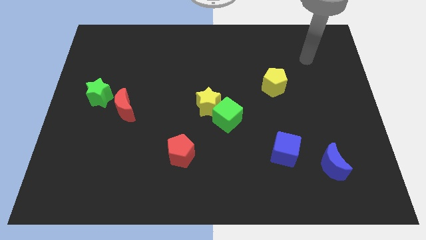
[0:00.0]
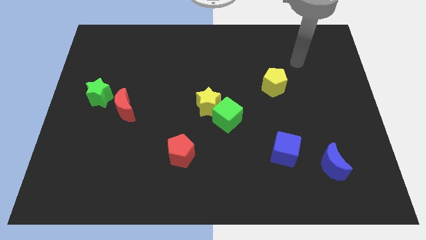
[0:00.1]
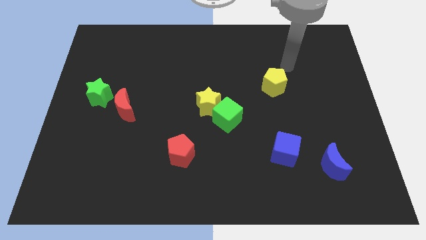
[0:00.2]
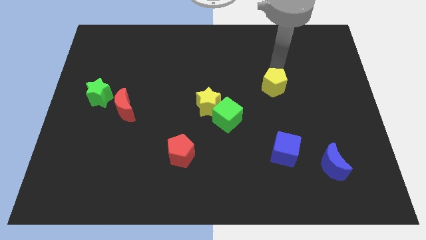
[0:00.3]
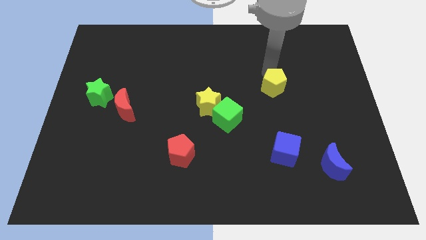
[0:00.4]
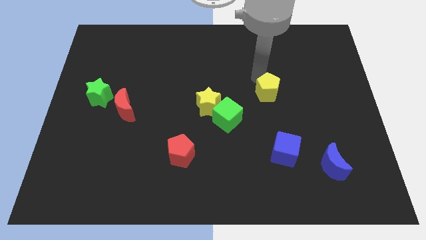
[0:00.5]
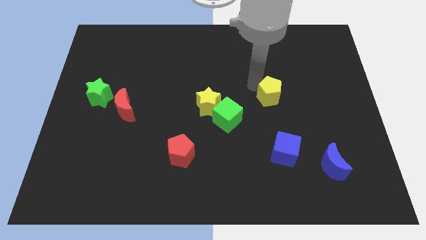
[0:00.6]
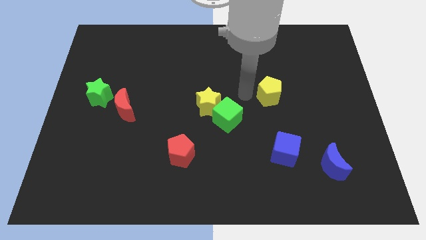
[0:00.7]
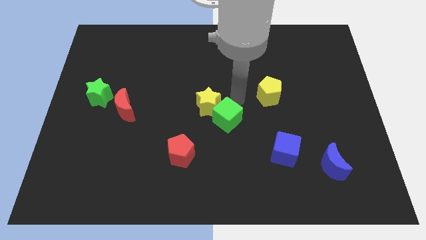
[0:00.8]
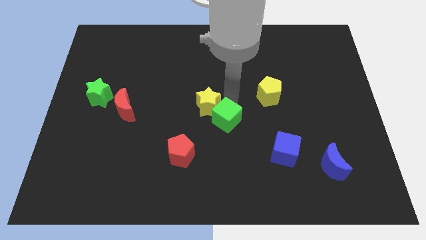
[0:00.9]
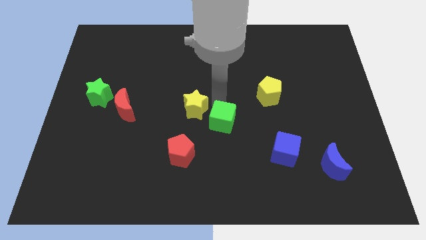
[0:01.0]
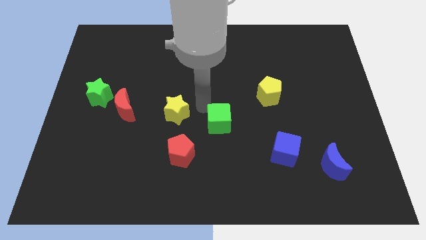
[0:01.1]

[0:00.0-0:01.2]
pull the green cube apart from the yellow star

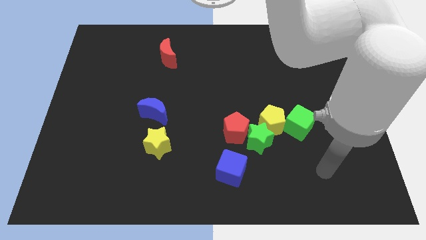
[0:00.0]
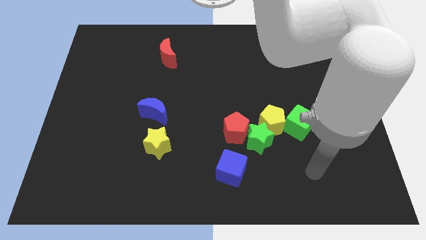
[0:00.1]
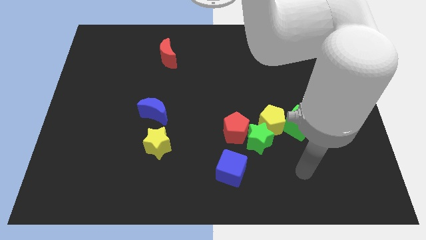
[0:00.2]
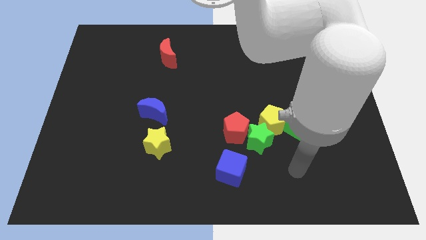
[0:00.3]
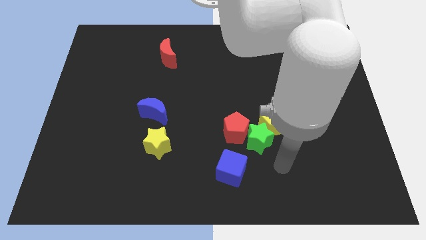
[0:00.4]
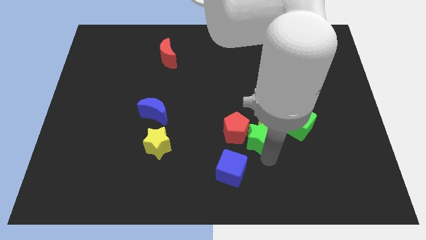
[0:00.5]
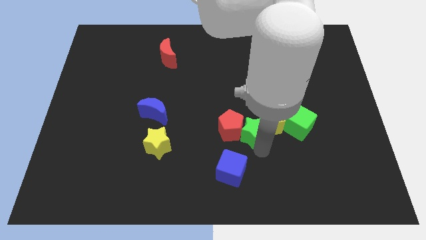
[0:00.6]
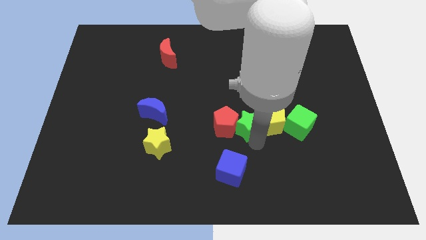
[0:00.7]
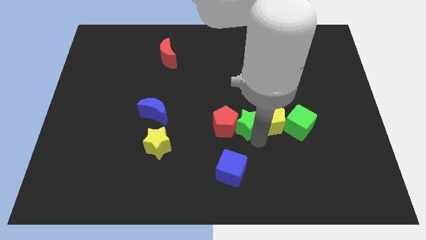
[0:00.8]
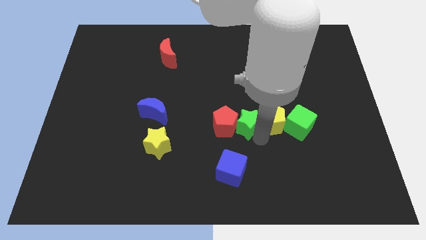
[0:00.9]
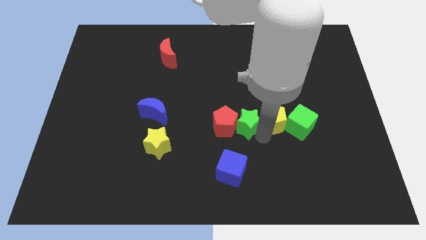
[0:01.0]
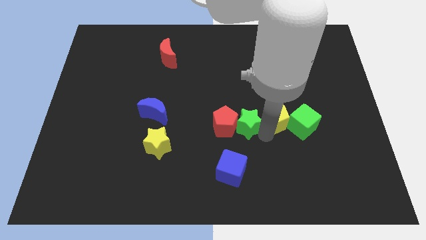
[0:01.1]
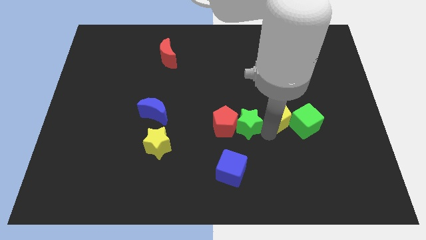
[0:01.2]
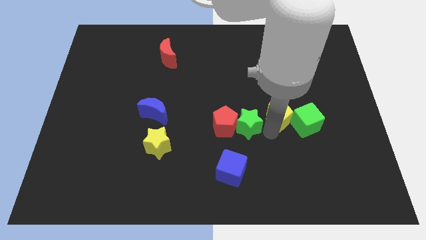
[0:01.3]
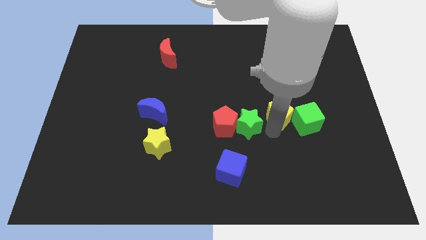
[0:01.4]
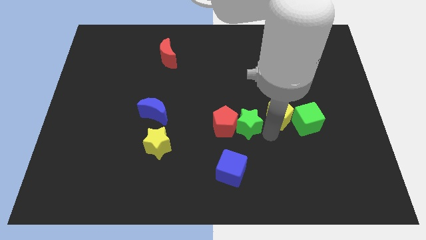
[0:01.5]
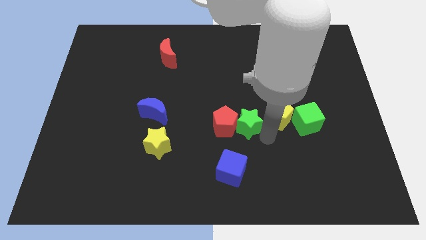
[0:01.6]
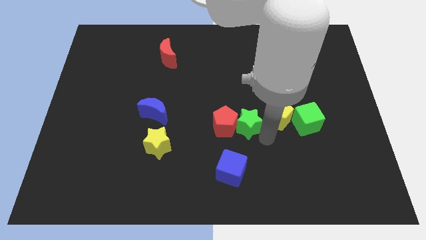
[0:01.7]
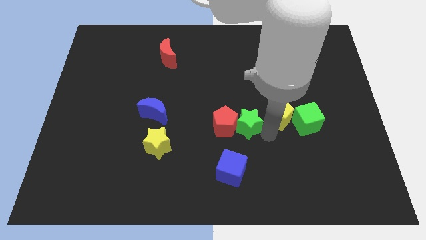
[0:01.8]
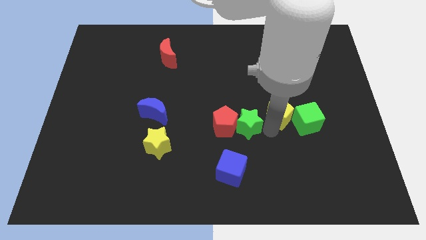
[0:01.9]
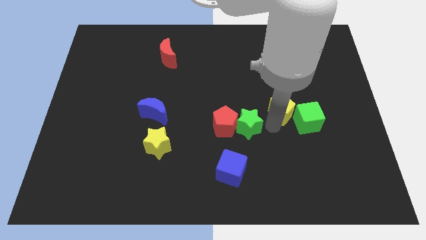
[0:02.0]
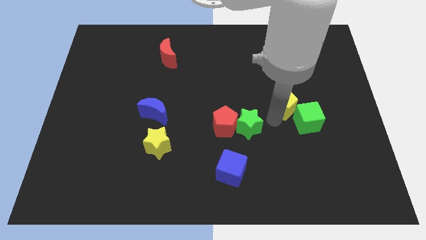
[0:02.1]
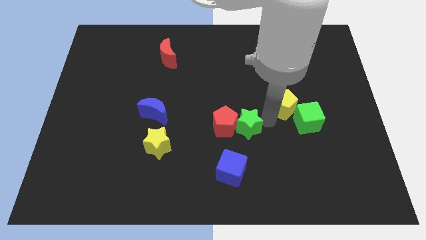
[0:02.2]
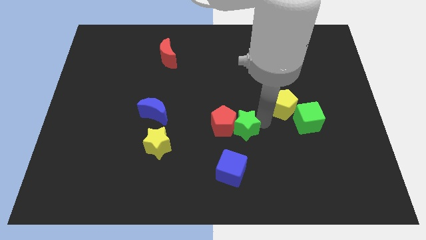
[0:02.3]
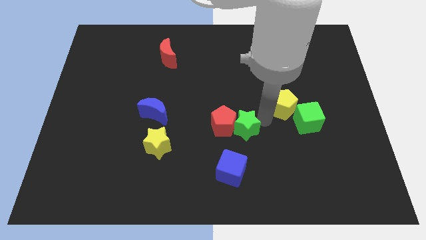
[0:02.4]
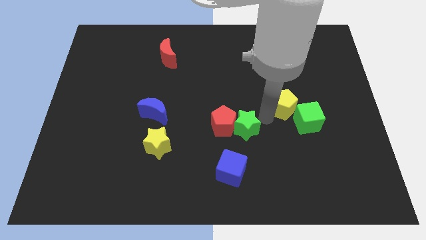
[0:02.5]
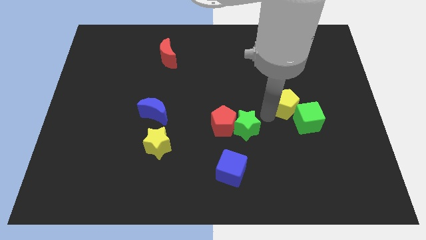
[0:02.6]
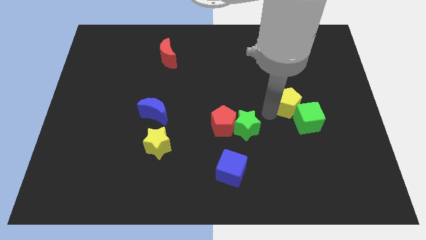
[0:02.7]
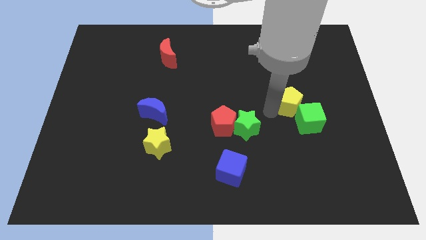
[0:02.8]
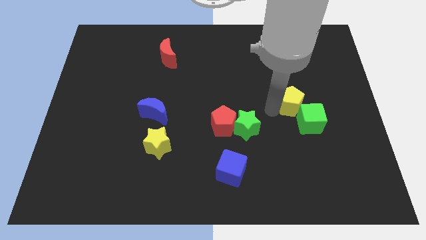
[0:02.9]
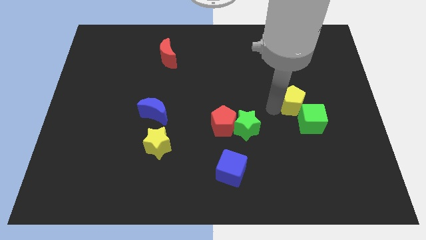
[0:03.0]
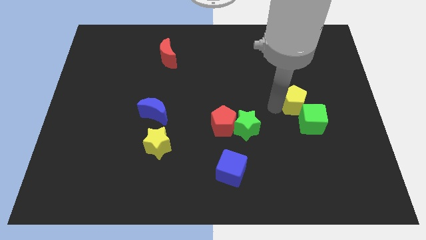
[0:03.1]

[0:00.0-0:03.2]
pull the yellow pentagon apart from the green star, green cube, and red pentagon

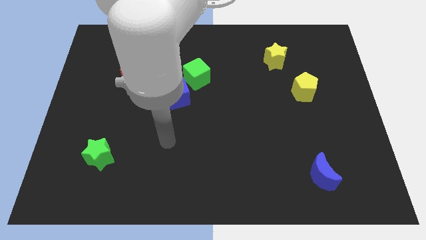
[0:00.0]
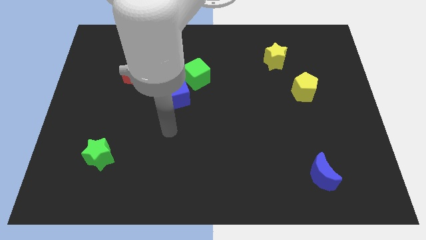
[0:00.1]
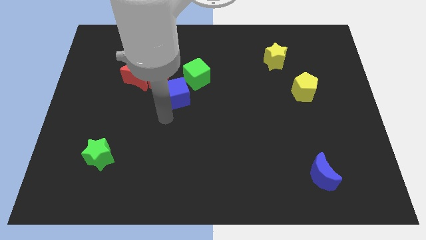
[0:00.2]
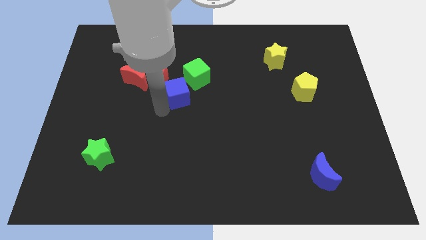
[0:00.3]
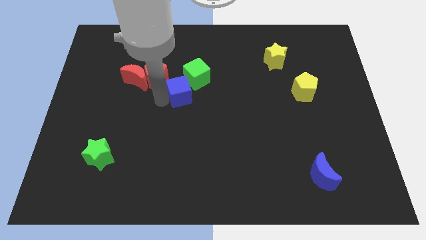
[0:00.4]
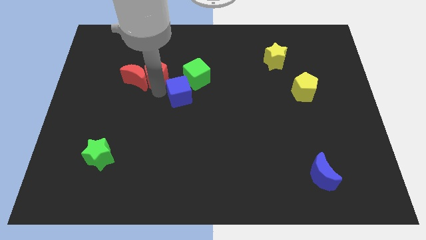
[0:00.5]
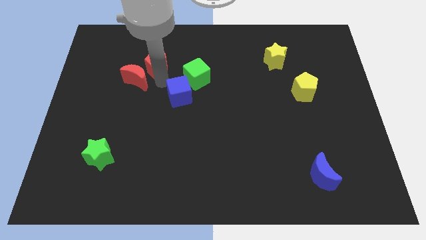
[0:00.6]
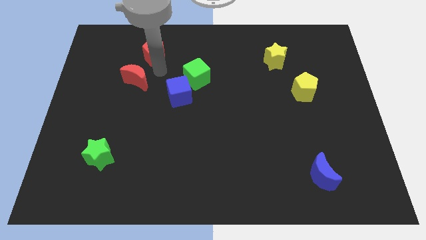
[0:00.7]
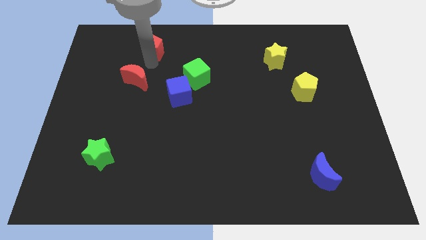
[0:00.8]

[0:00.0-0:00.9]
move the red moon away from the red pentagon

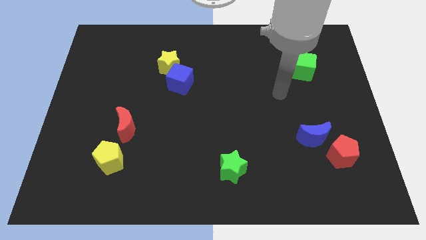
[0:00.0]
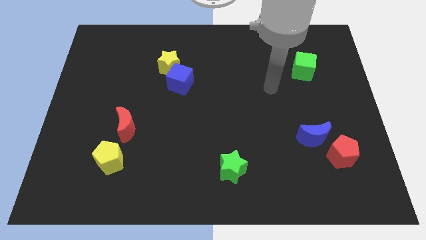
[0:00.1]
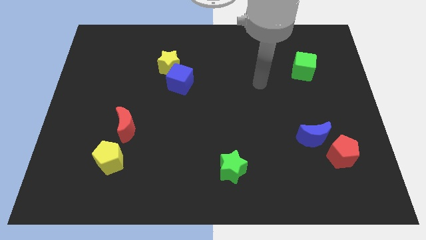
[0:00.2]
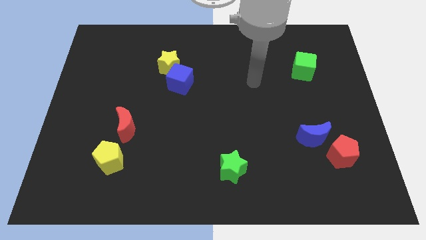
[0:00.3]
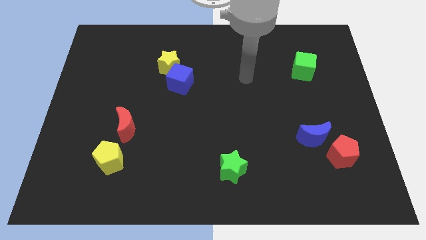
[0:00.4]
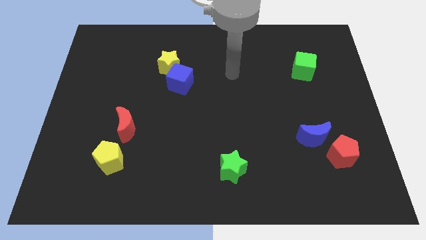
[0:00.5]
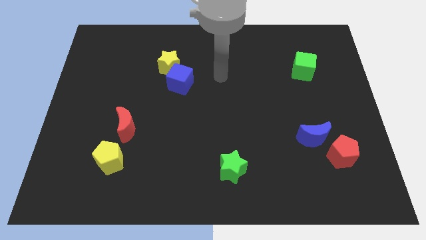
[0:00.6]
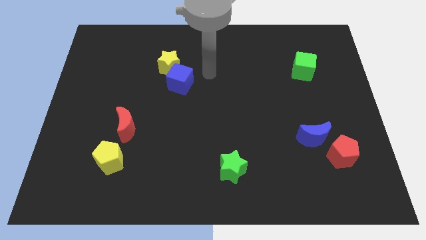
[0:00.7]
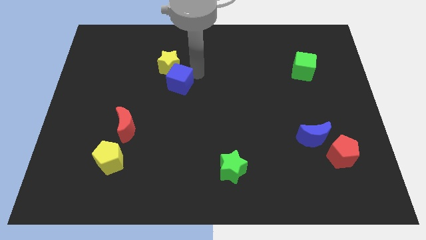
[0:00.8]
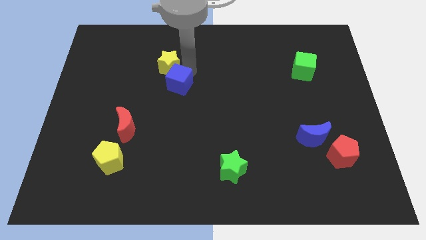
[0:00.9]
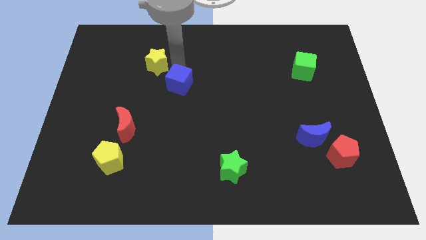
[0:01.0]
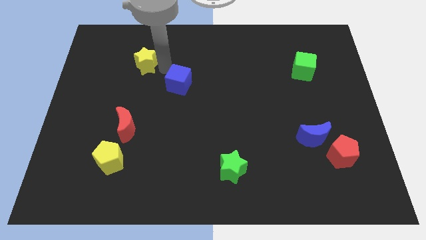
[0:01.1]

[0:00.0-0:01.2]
pull the blue cube apart from the yellow star

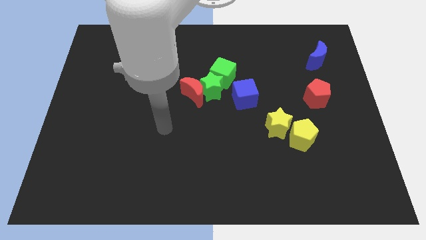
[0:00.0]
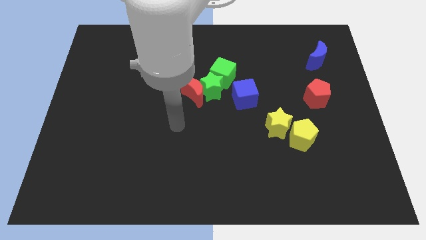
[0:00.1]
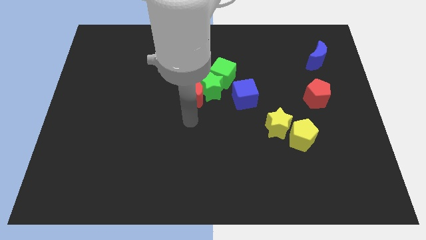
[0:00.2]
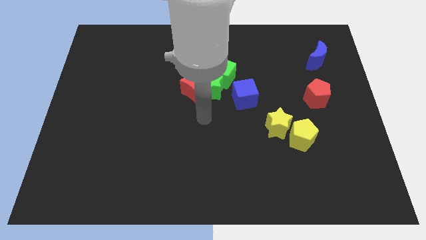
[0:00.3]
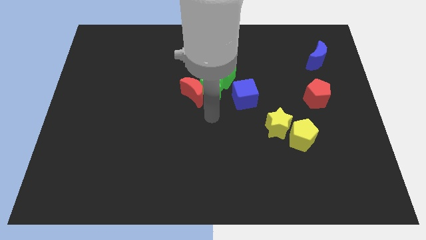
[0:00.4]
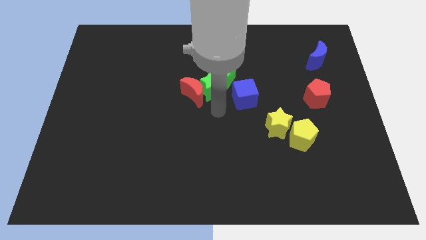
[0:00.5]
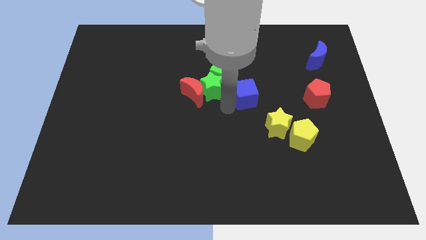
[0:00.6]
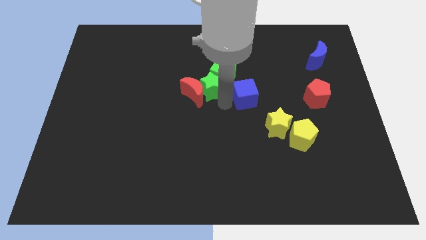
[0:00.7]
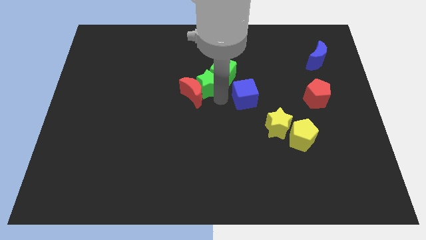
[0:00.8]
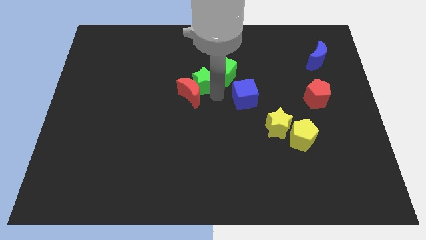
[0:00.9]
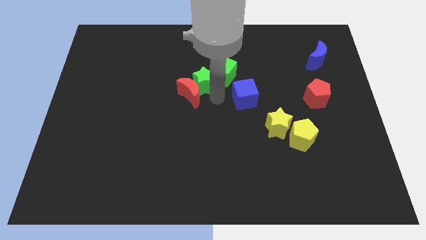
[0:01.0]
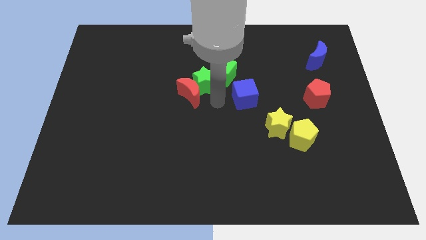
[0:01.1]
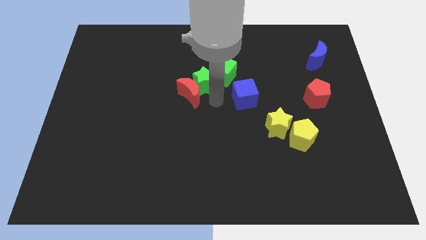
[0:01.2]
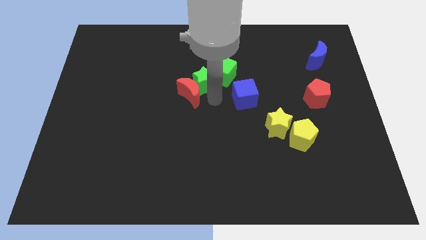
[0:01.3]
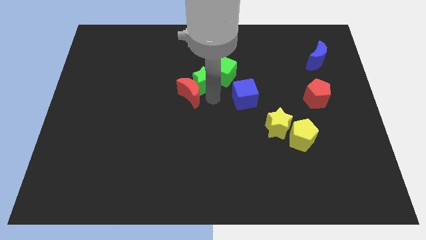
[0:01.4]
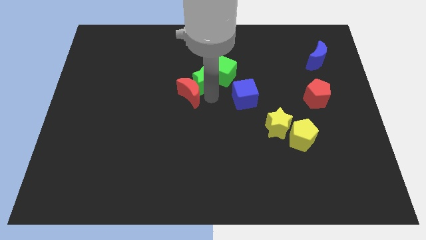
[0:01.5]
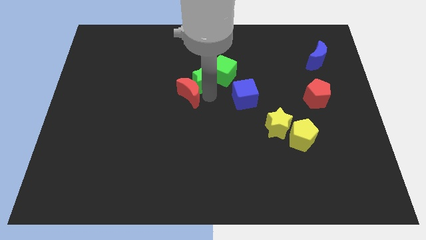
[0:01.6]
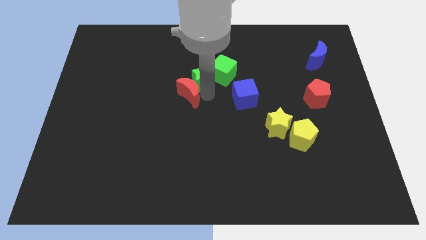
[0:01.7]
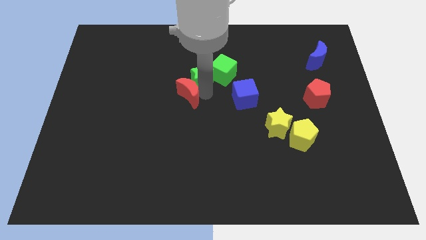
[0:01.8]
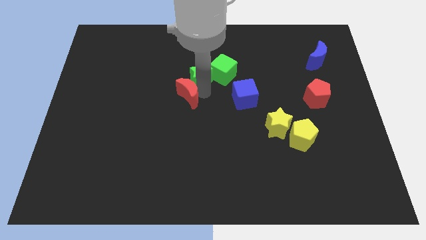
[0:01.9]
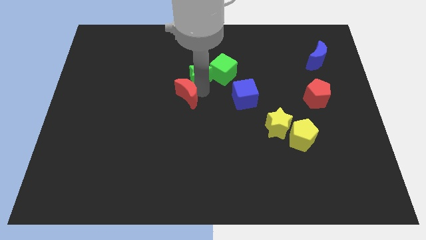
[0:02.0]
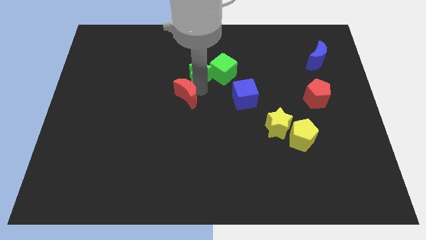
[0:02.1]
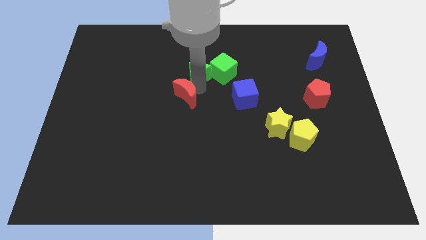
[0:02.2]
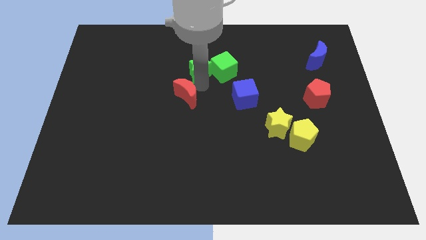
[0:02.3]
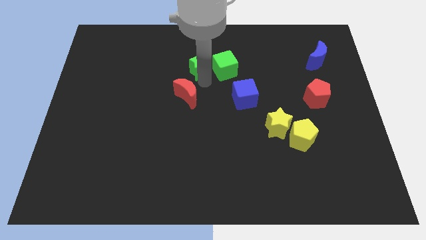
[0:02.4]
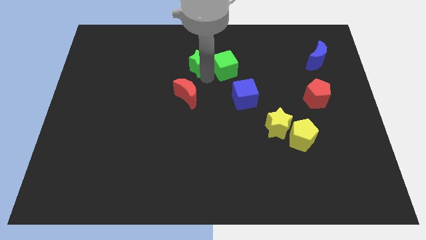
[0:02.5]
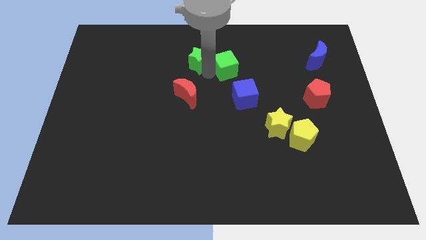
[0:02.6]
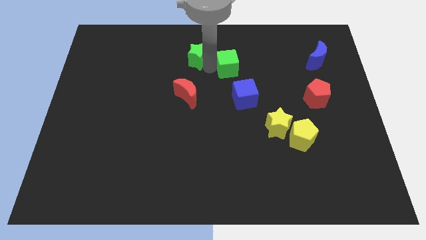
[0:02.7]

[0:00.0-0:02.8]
pull the green star apart from the group
